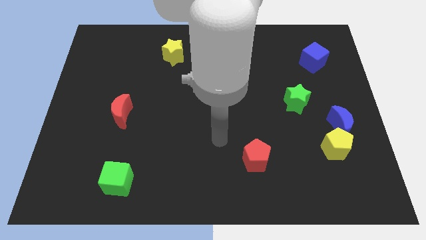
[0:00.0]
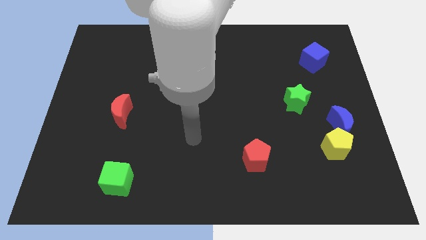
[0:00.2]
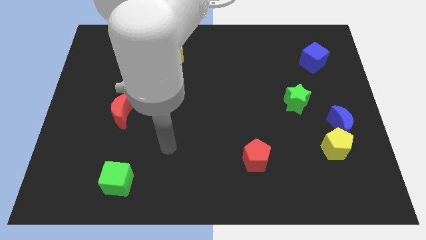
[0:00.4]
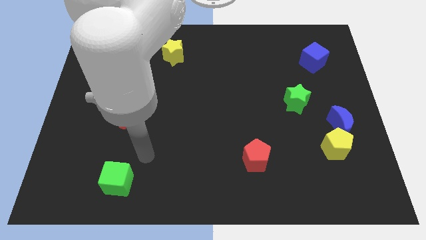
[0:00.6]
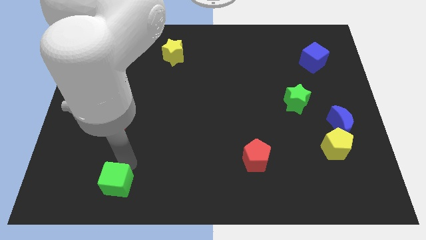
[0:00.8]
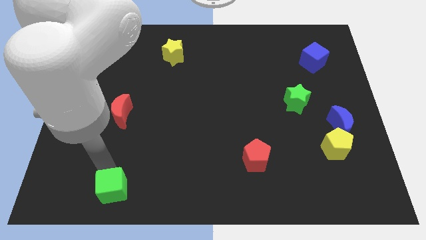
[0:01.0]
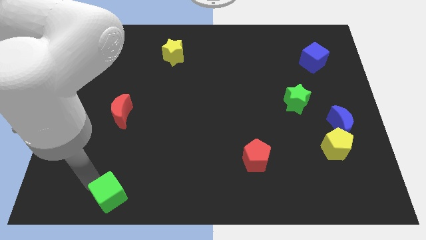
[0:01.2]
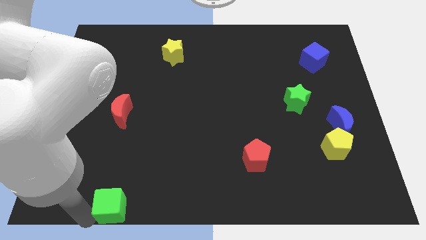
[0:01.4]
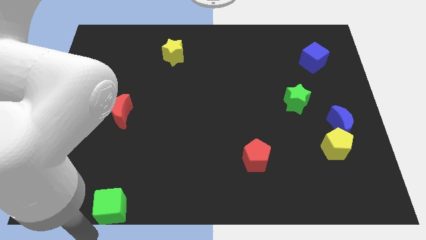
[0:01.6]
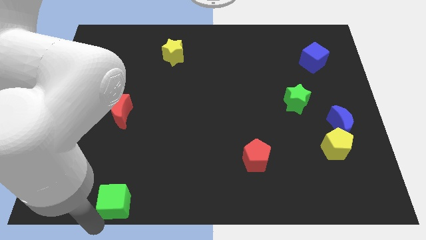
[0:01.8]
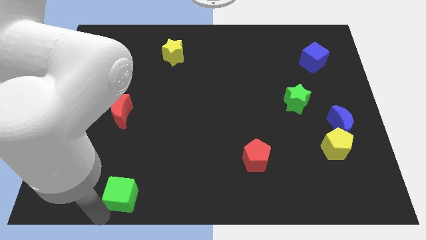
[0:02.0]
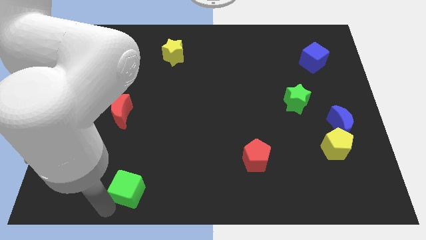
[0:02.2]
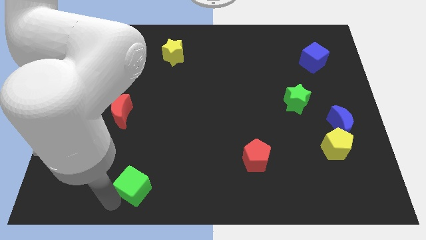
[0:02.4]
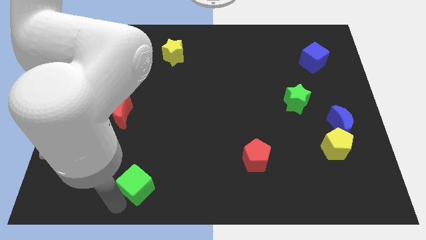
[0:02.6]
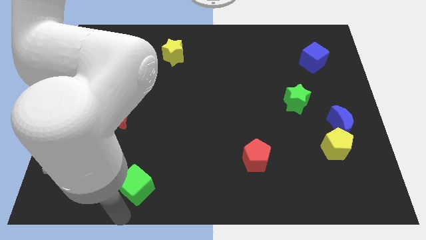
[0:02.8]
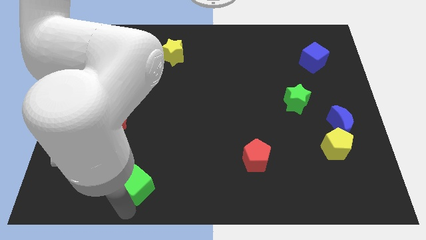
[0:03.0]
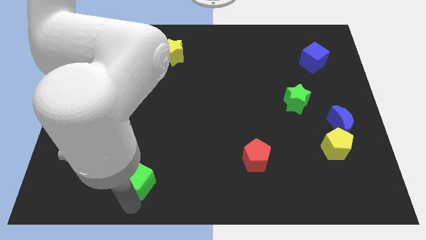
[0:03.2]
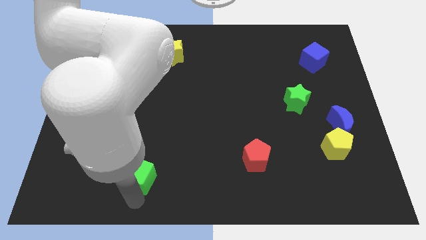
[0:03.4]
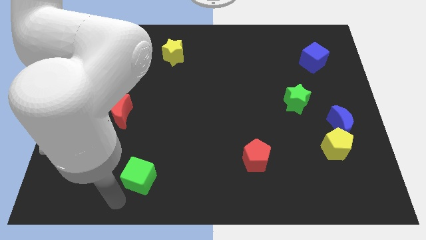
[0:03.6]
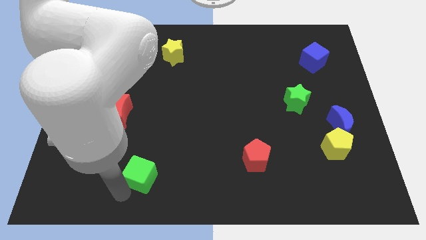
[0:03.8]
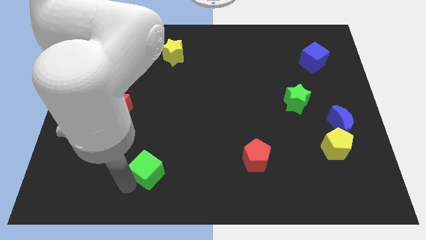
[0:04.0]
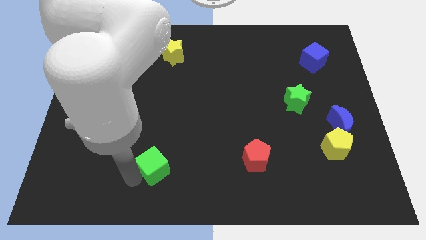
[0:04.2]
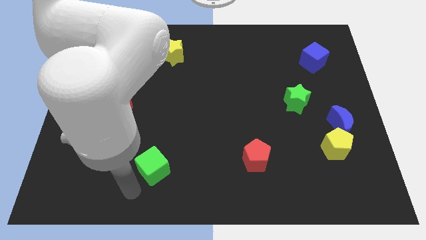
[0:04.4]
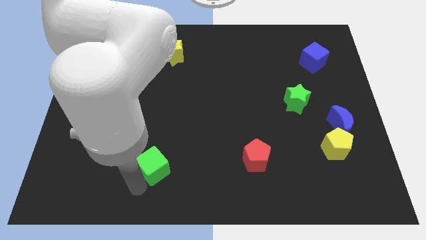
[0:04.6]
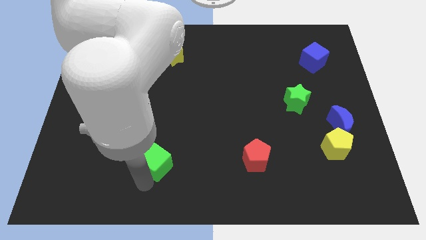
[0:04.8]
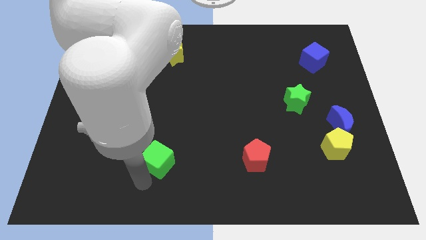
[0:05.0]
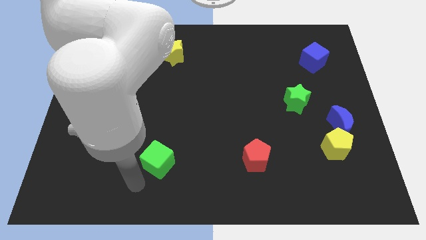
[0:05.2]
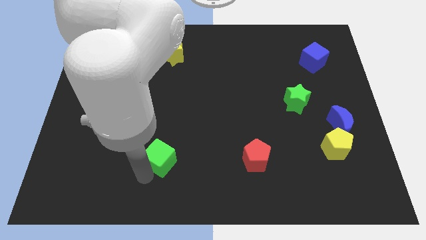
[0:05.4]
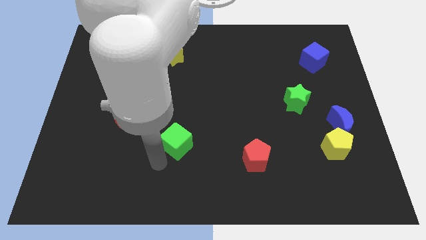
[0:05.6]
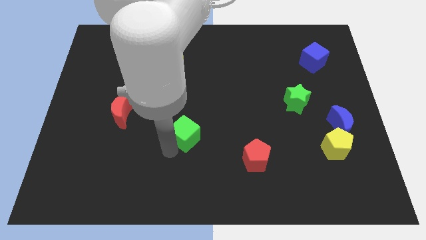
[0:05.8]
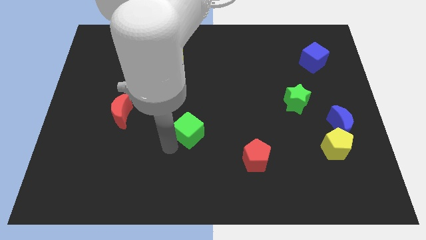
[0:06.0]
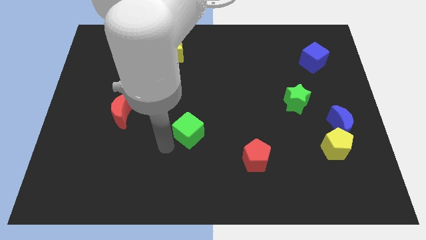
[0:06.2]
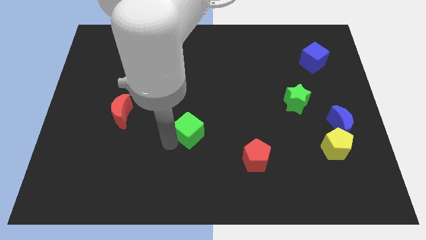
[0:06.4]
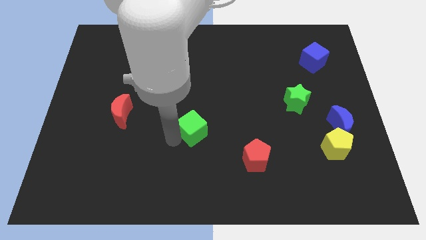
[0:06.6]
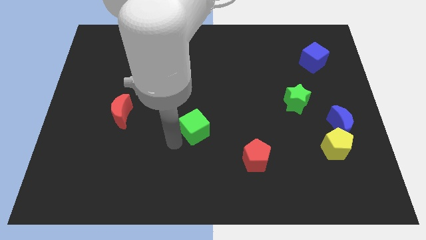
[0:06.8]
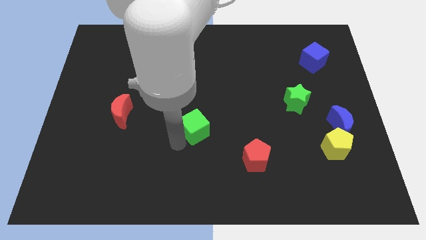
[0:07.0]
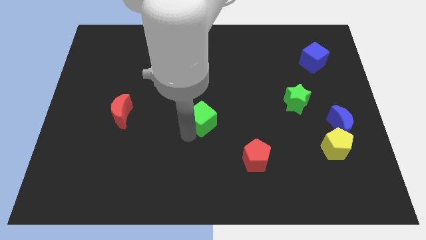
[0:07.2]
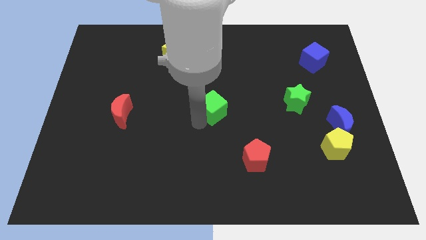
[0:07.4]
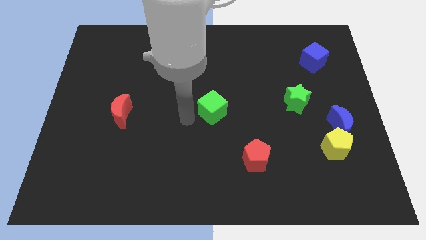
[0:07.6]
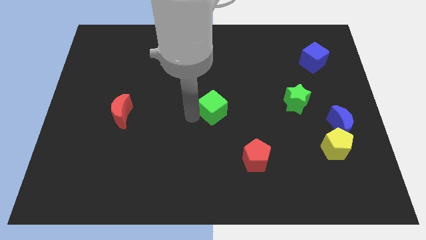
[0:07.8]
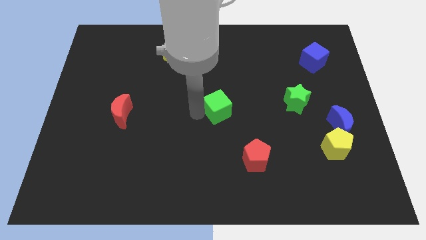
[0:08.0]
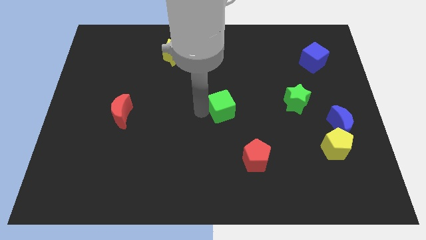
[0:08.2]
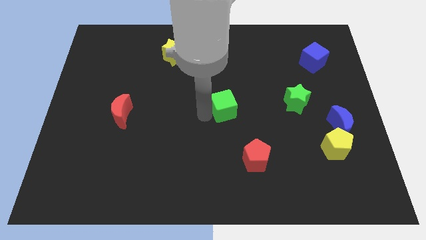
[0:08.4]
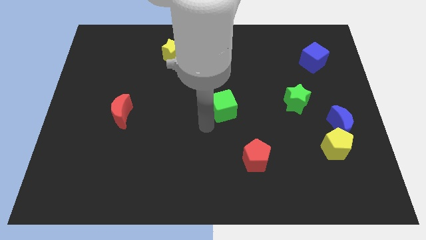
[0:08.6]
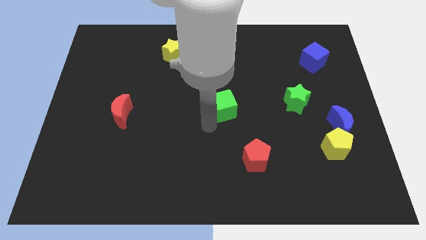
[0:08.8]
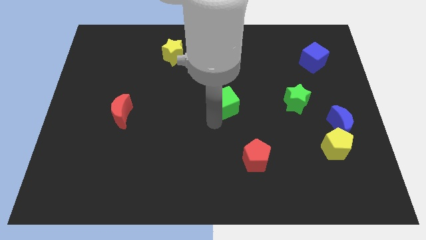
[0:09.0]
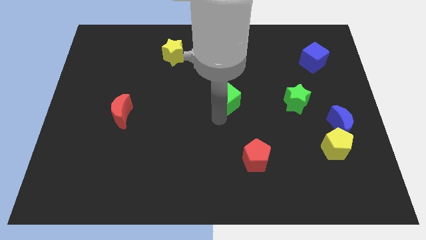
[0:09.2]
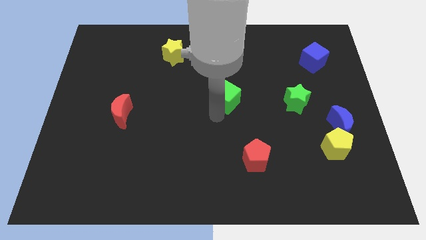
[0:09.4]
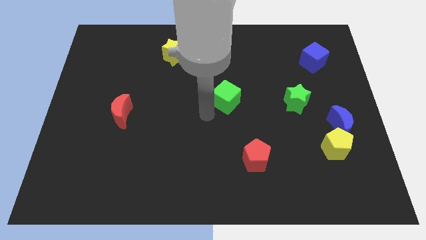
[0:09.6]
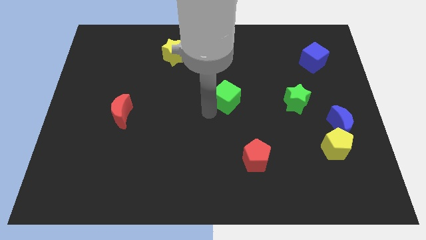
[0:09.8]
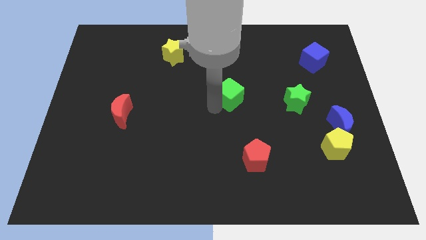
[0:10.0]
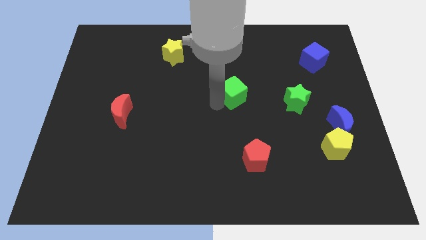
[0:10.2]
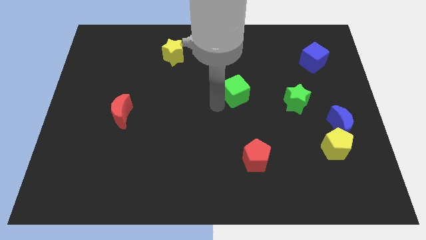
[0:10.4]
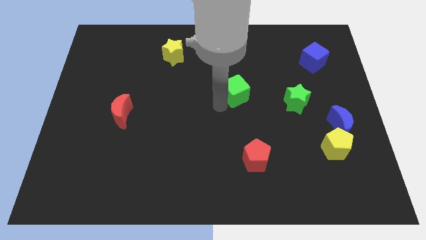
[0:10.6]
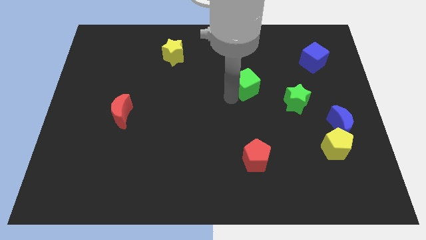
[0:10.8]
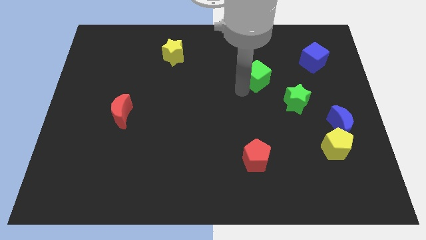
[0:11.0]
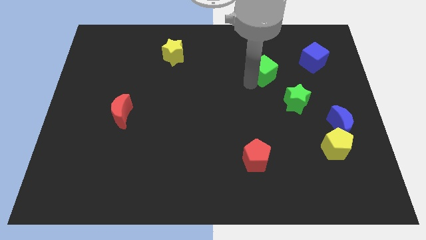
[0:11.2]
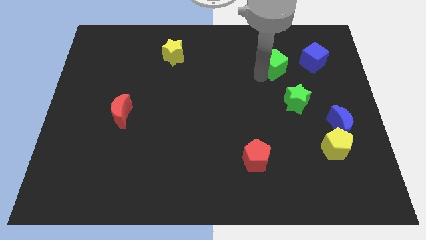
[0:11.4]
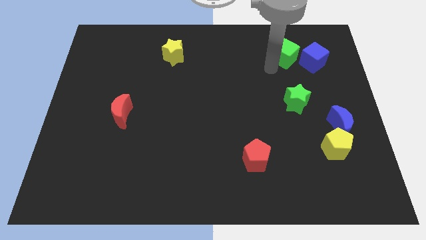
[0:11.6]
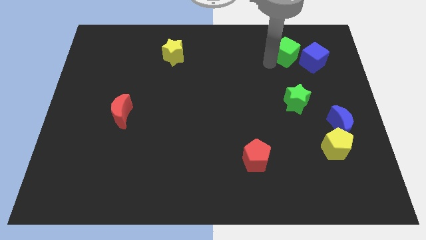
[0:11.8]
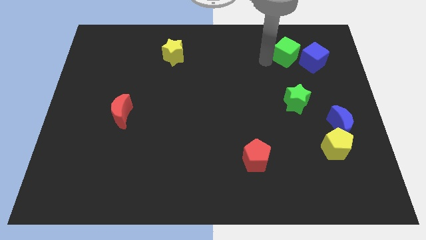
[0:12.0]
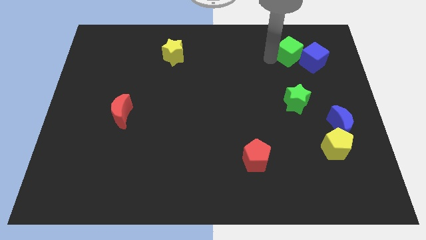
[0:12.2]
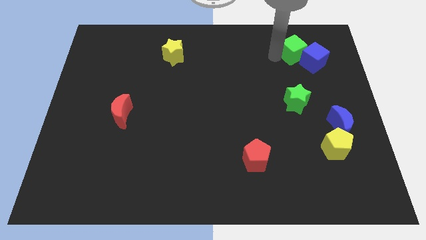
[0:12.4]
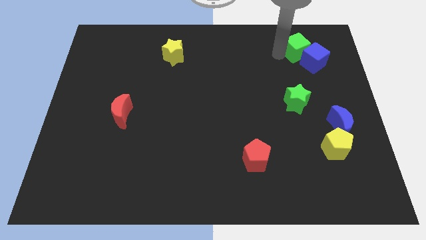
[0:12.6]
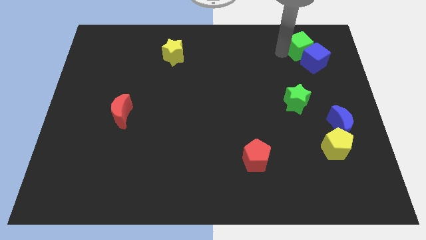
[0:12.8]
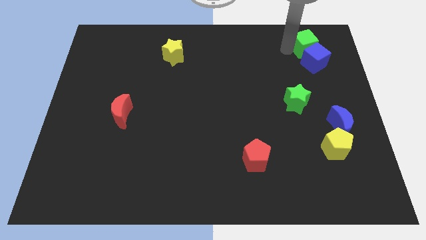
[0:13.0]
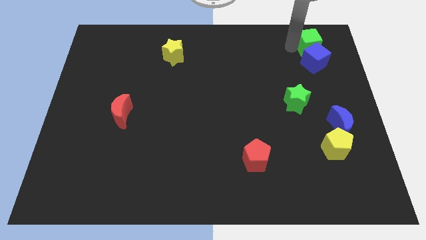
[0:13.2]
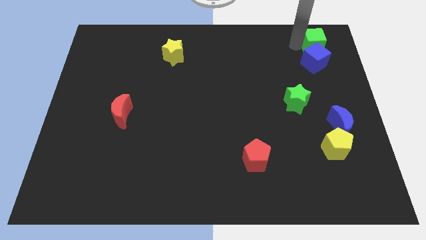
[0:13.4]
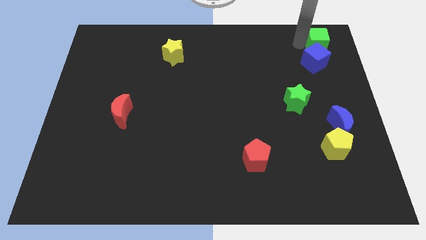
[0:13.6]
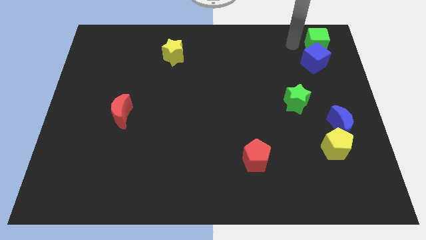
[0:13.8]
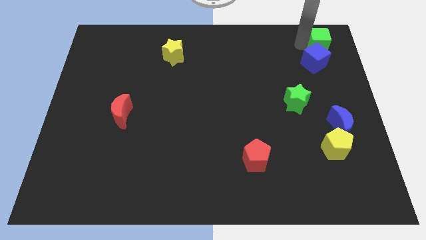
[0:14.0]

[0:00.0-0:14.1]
put the green cube to the upper right corner
